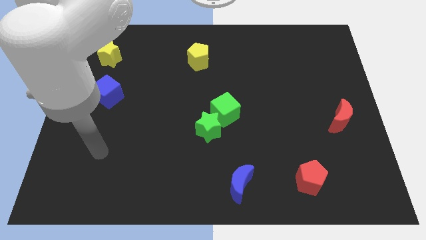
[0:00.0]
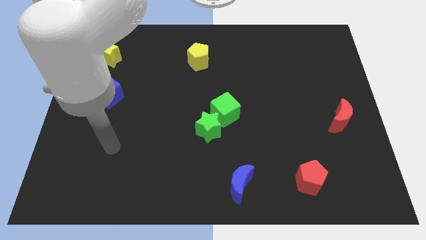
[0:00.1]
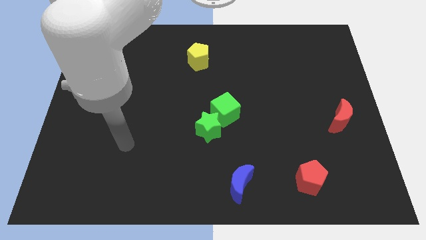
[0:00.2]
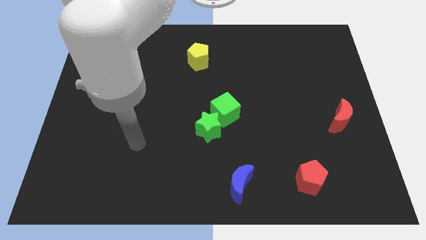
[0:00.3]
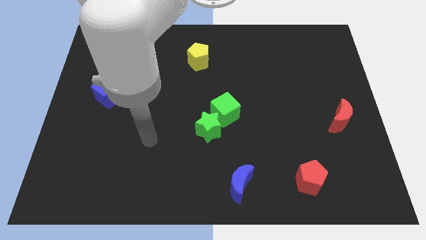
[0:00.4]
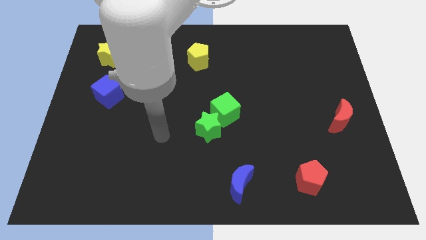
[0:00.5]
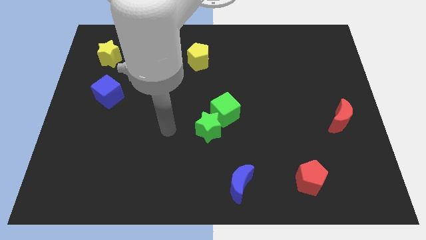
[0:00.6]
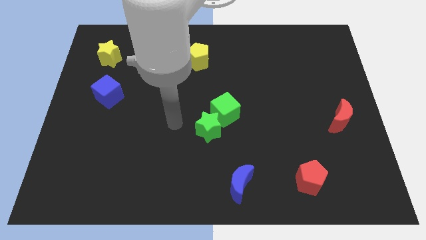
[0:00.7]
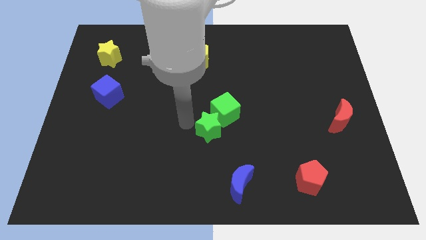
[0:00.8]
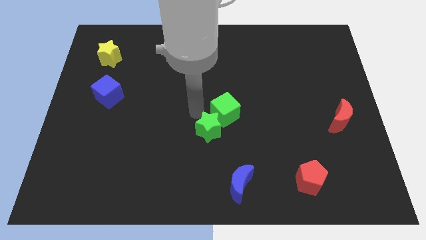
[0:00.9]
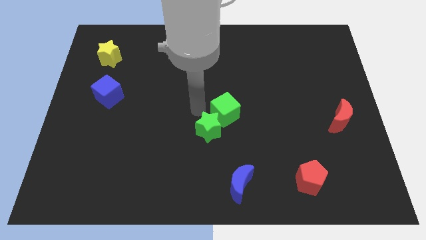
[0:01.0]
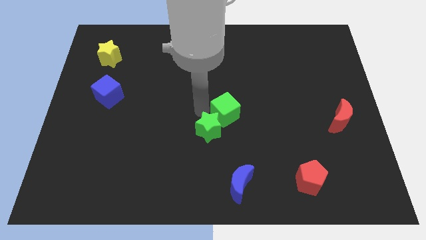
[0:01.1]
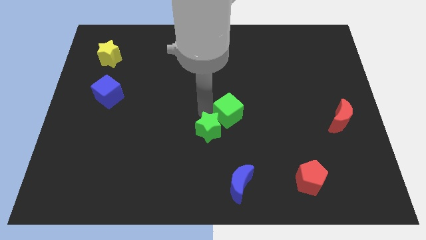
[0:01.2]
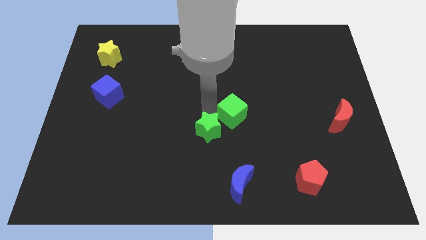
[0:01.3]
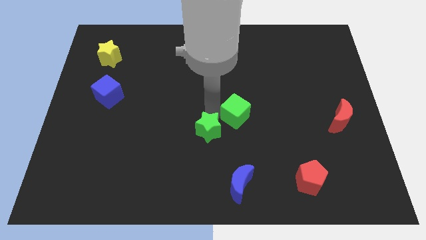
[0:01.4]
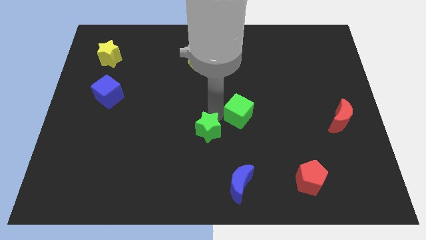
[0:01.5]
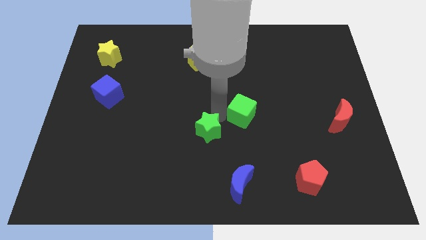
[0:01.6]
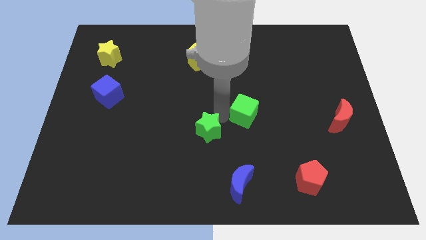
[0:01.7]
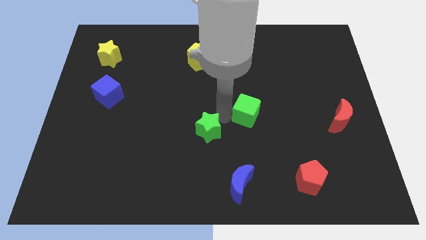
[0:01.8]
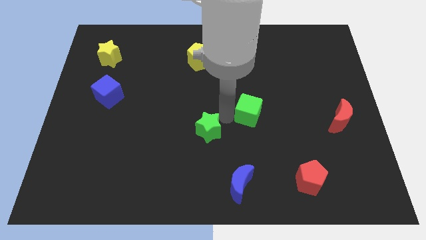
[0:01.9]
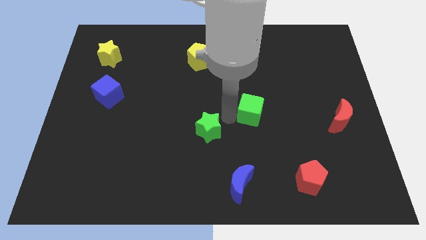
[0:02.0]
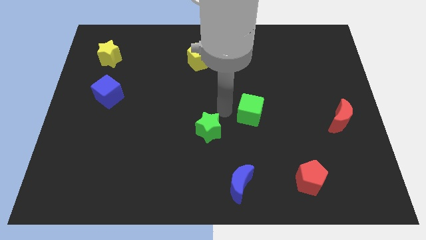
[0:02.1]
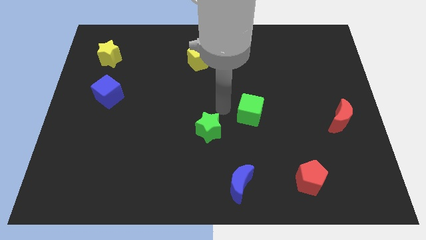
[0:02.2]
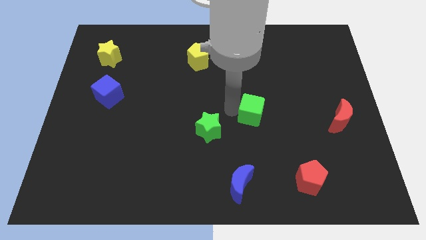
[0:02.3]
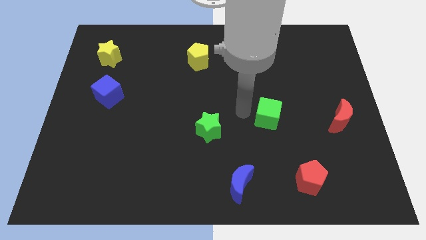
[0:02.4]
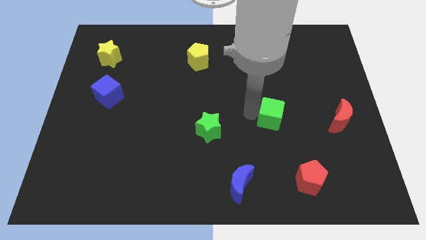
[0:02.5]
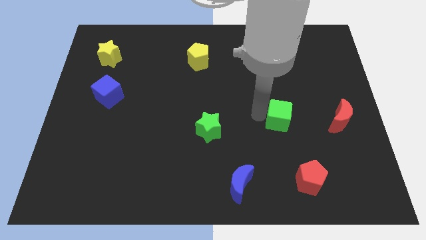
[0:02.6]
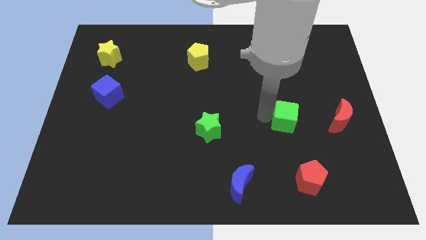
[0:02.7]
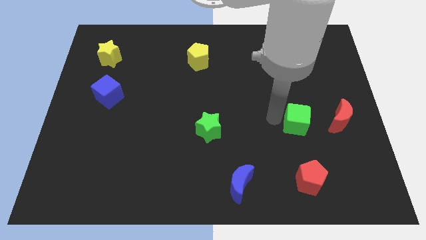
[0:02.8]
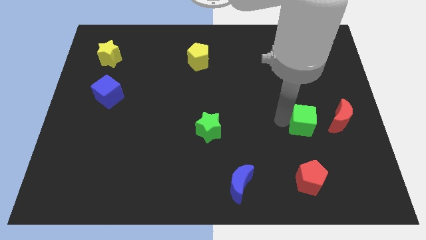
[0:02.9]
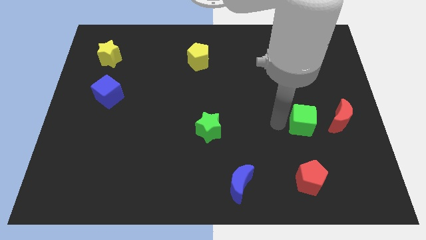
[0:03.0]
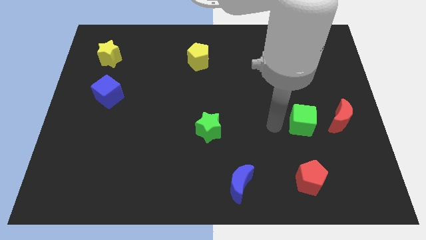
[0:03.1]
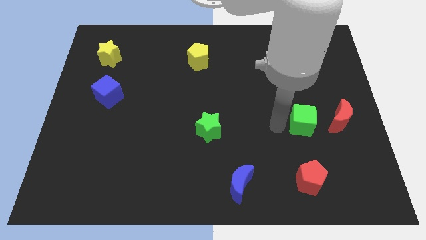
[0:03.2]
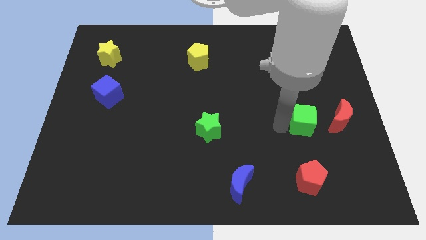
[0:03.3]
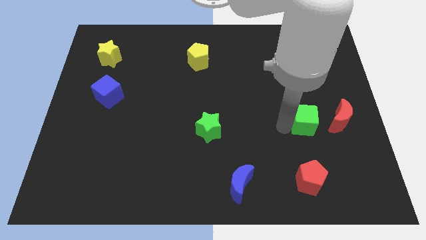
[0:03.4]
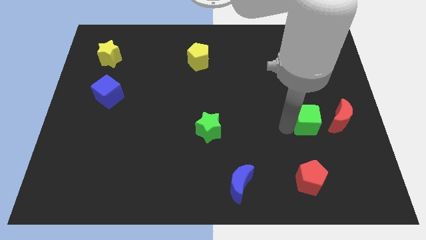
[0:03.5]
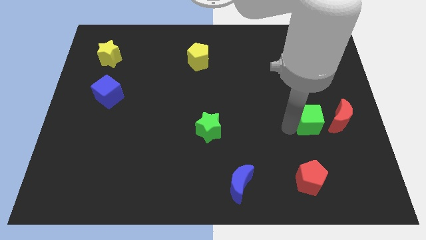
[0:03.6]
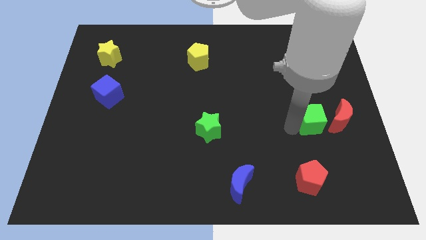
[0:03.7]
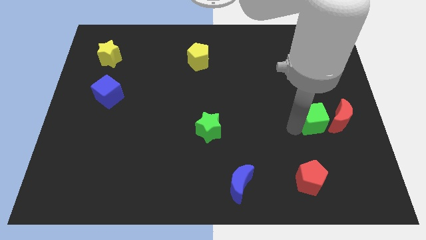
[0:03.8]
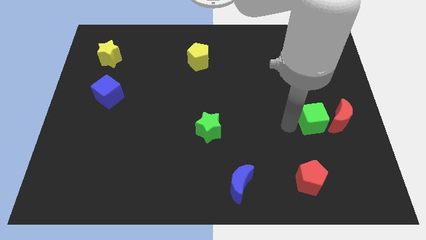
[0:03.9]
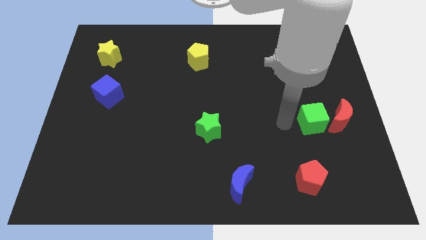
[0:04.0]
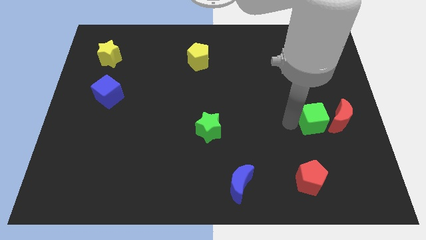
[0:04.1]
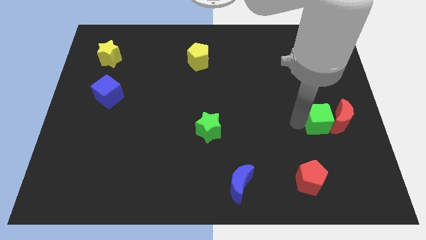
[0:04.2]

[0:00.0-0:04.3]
slide the green cube to the red moon

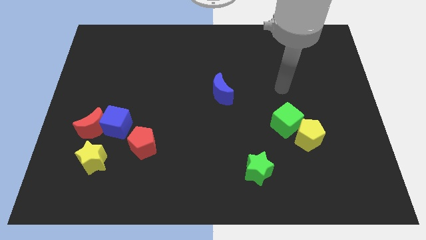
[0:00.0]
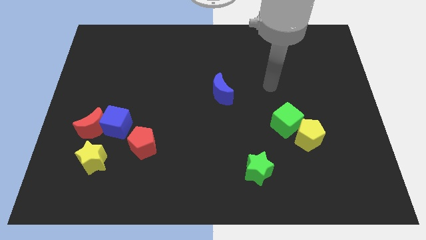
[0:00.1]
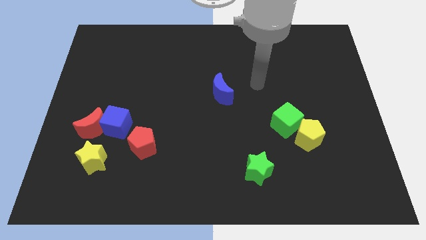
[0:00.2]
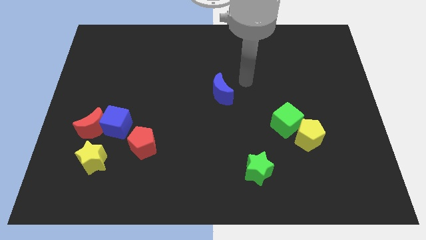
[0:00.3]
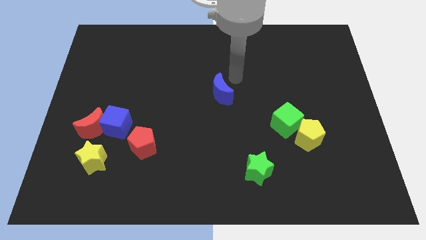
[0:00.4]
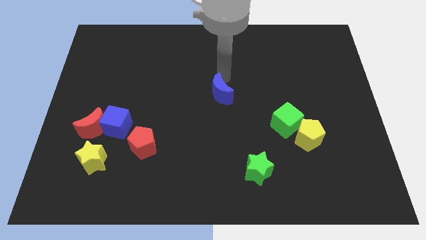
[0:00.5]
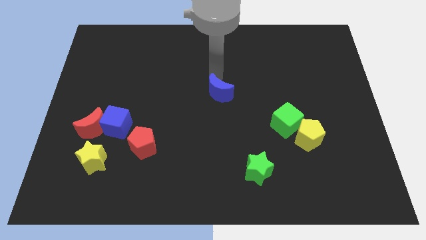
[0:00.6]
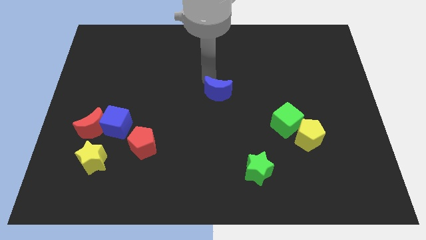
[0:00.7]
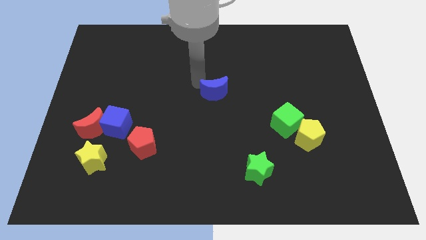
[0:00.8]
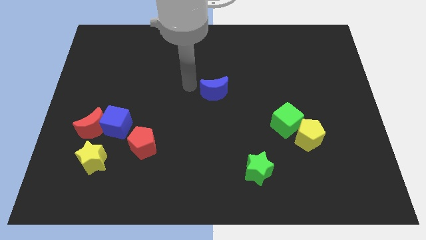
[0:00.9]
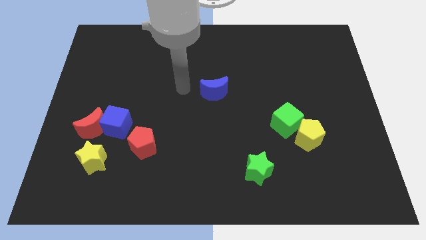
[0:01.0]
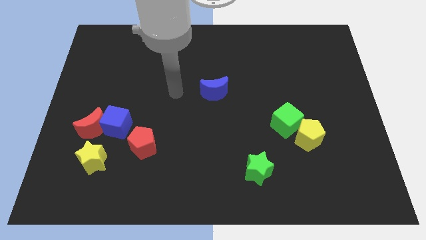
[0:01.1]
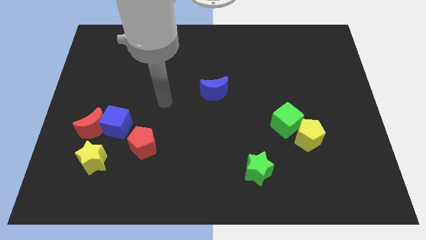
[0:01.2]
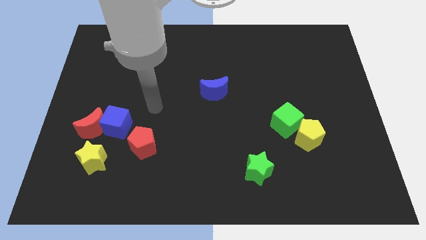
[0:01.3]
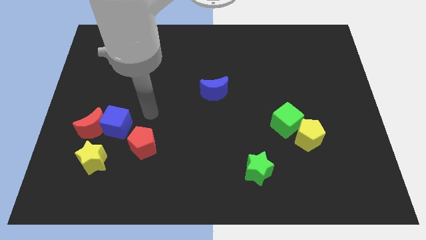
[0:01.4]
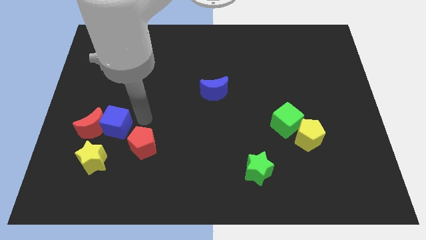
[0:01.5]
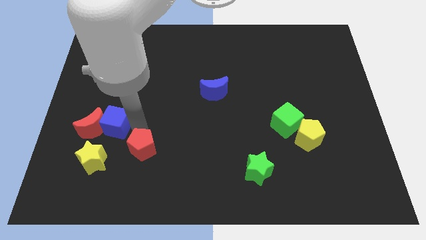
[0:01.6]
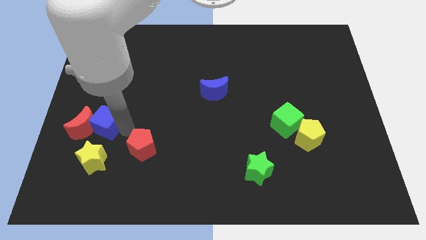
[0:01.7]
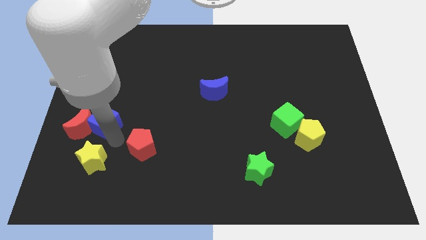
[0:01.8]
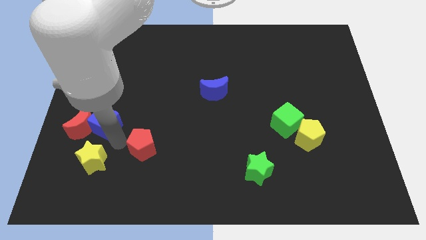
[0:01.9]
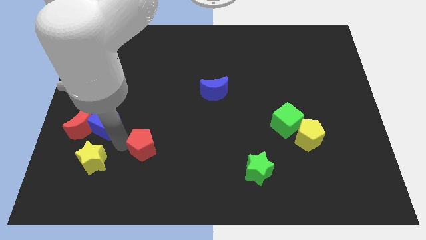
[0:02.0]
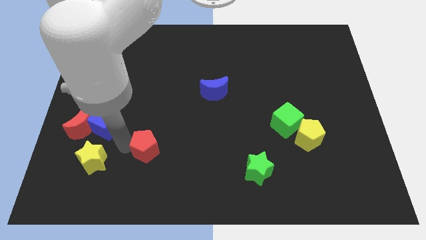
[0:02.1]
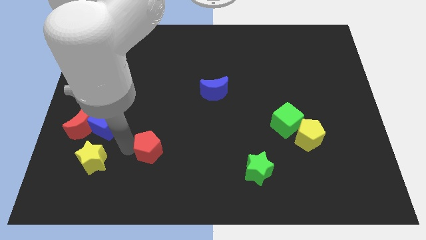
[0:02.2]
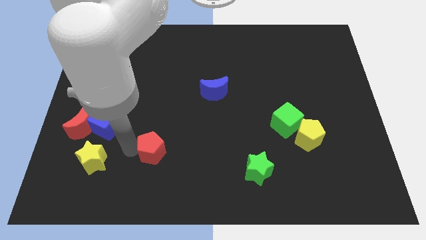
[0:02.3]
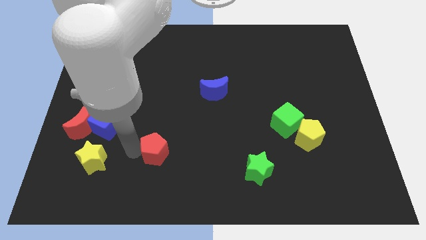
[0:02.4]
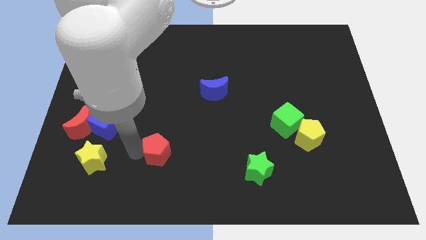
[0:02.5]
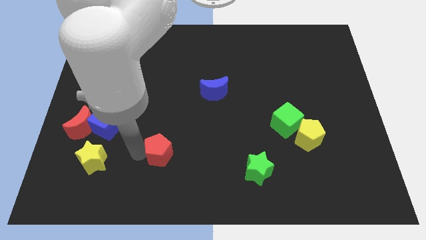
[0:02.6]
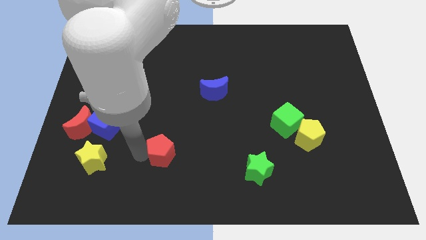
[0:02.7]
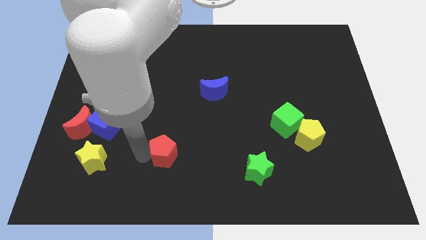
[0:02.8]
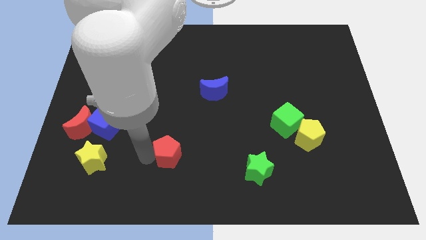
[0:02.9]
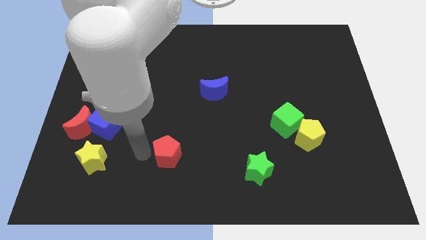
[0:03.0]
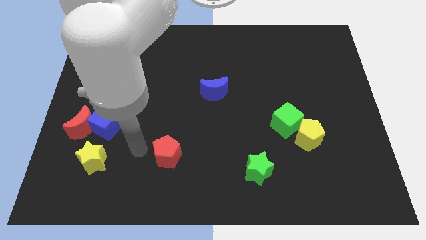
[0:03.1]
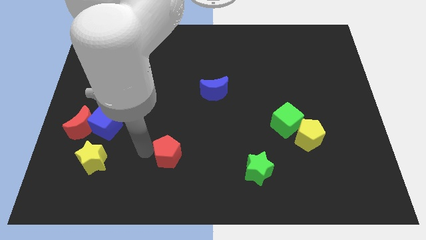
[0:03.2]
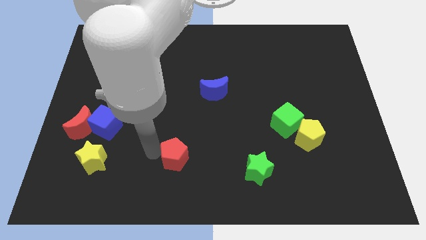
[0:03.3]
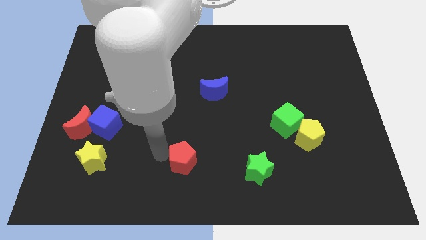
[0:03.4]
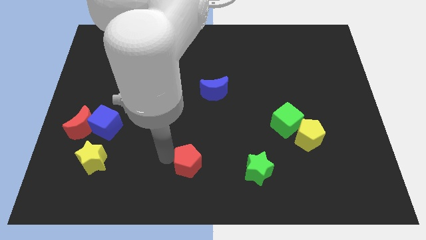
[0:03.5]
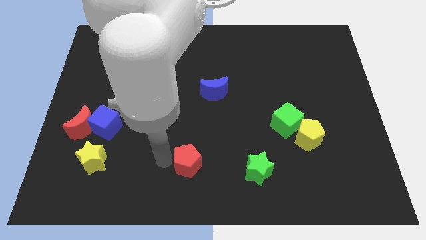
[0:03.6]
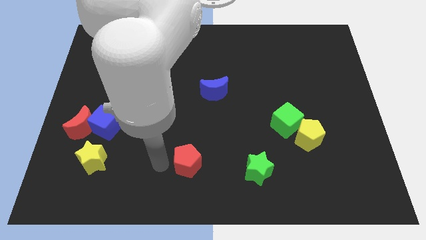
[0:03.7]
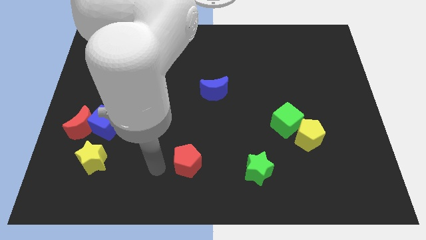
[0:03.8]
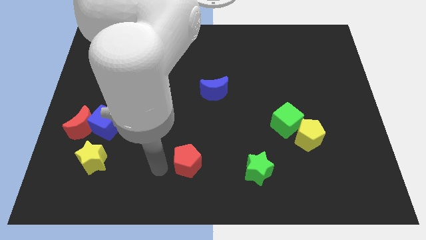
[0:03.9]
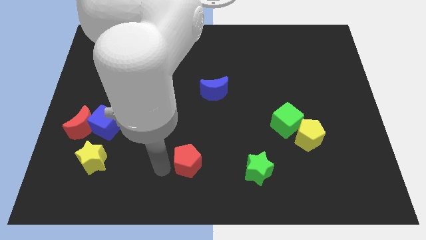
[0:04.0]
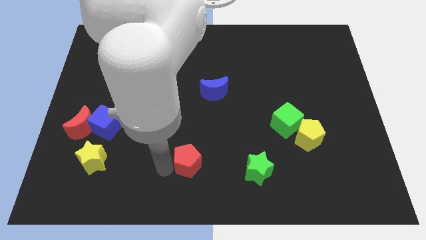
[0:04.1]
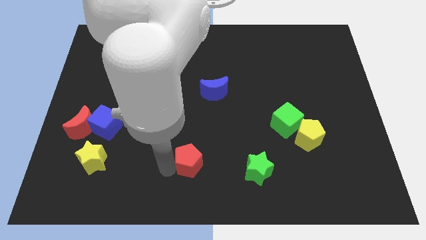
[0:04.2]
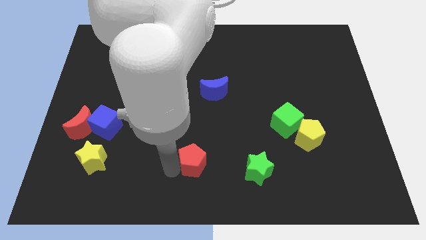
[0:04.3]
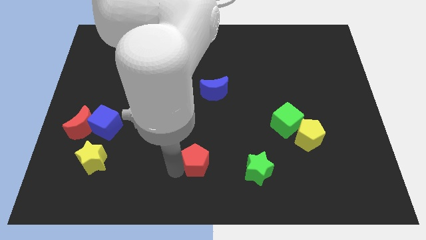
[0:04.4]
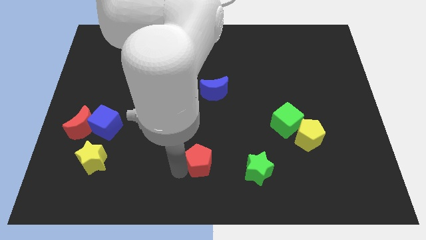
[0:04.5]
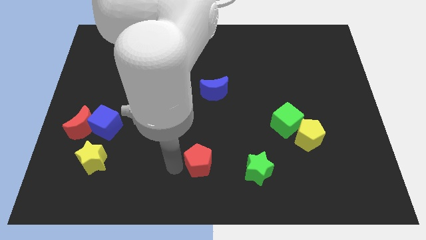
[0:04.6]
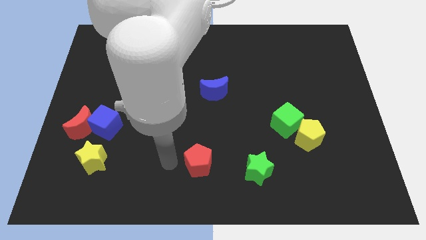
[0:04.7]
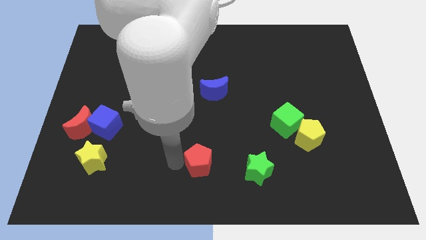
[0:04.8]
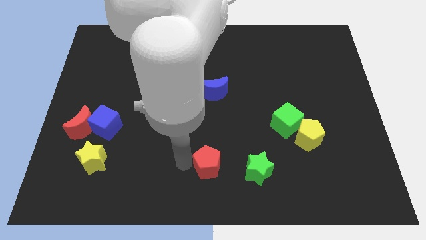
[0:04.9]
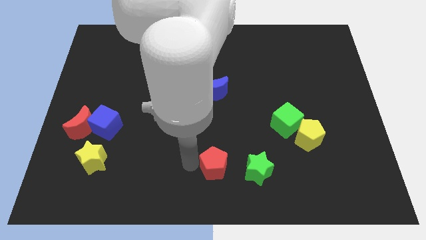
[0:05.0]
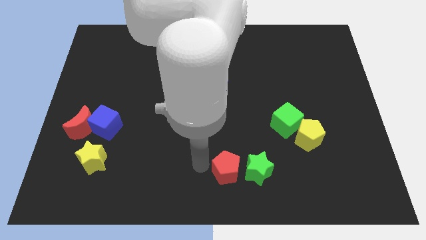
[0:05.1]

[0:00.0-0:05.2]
push the red pentagon close to the green star
